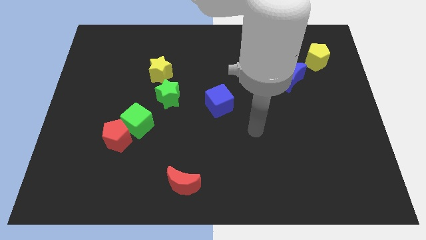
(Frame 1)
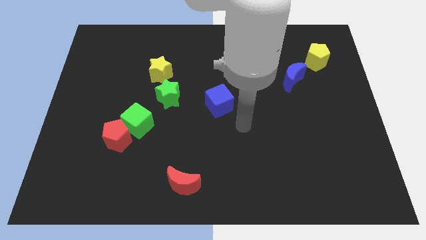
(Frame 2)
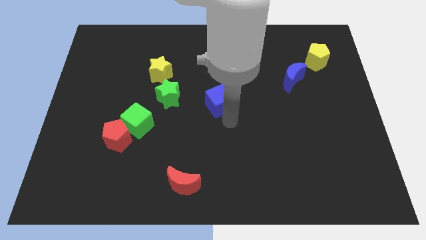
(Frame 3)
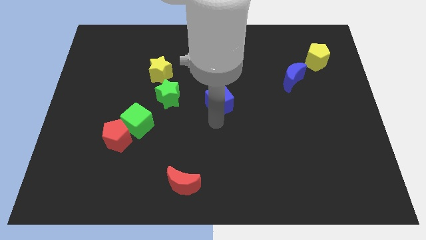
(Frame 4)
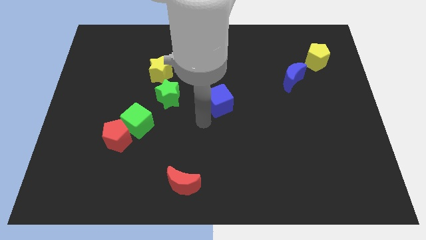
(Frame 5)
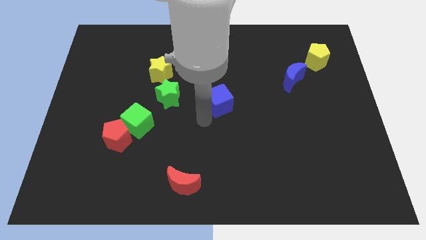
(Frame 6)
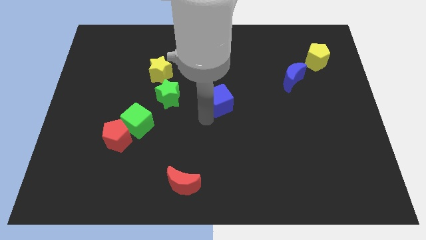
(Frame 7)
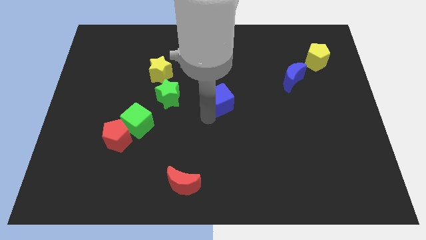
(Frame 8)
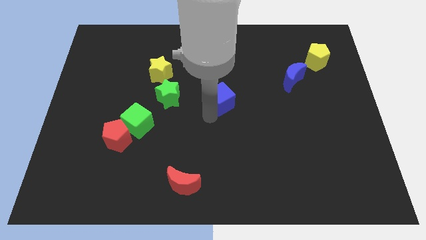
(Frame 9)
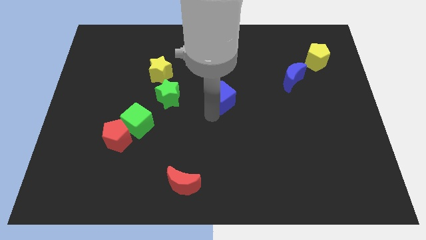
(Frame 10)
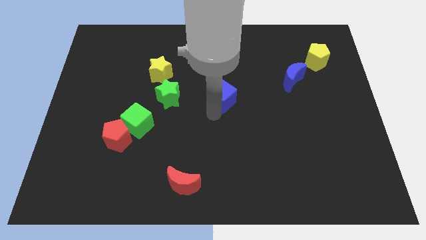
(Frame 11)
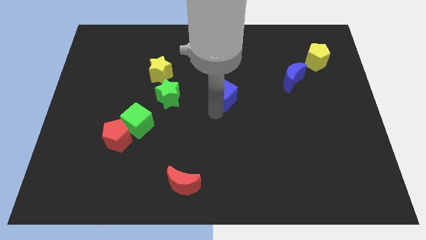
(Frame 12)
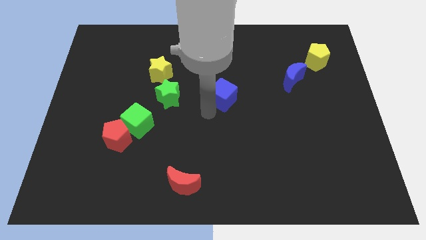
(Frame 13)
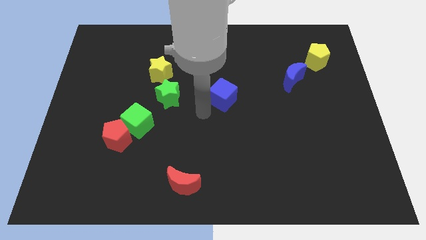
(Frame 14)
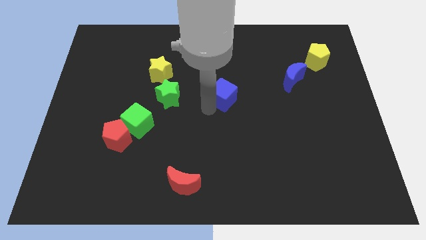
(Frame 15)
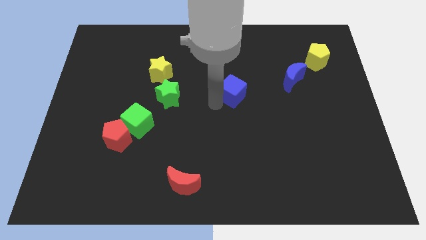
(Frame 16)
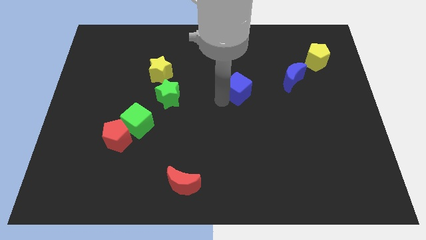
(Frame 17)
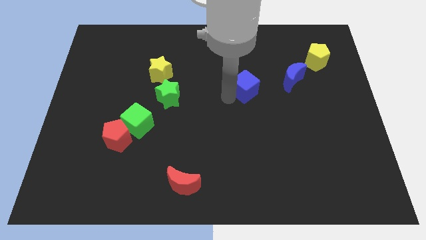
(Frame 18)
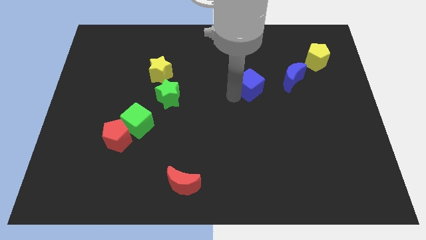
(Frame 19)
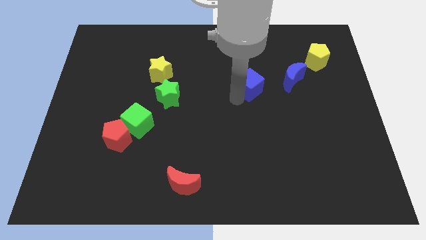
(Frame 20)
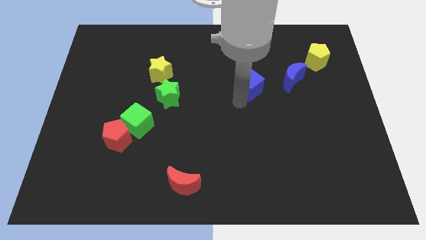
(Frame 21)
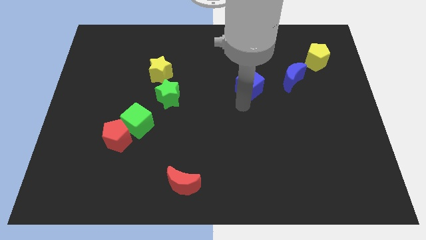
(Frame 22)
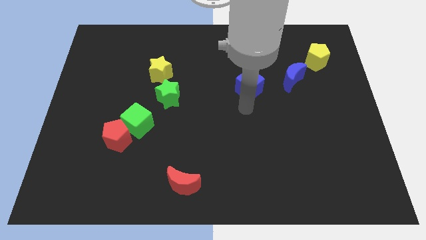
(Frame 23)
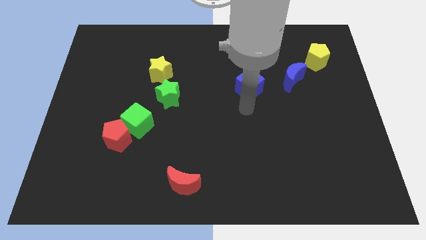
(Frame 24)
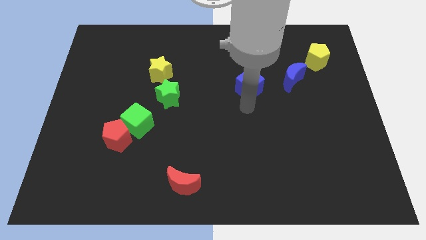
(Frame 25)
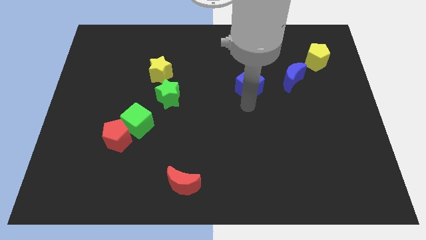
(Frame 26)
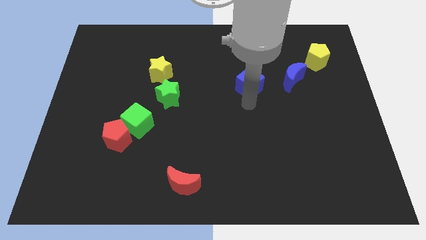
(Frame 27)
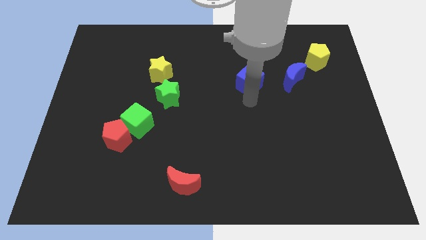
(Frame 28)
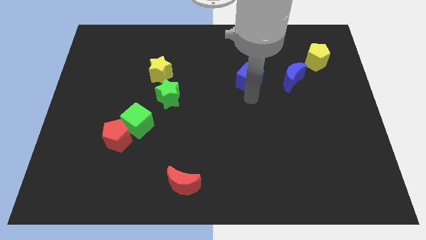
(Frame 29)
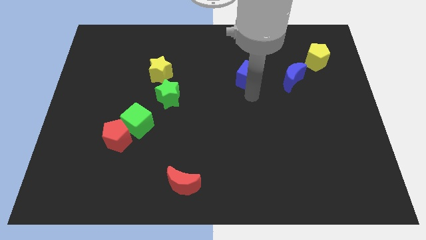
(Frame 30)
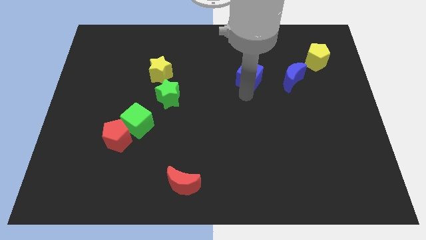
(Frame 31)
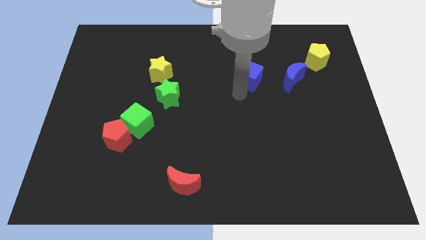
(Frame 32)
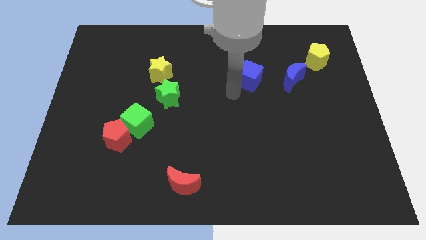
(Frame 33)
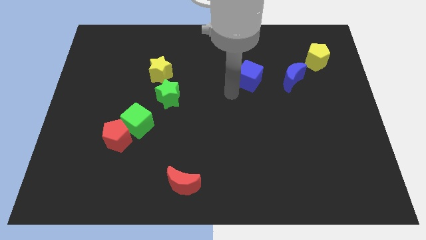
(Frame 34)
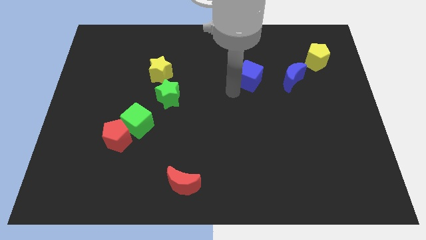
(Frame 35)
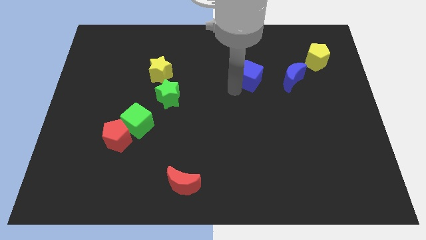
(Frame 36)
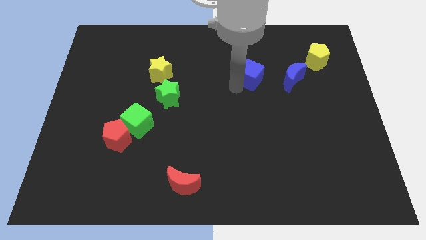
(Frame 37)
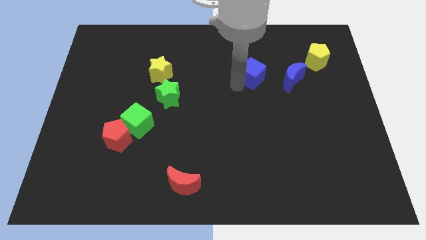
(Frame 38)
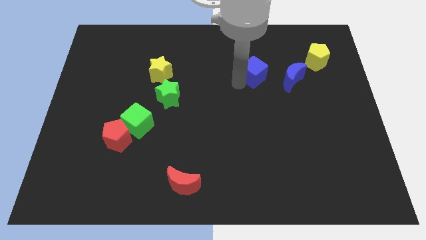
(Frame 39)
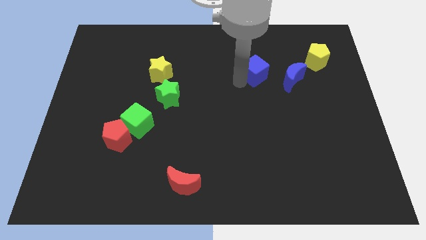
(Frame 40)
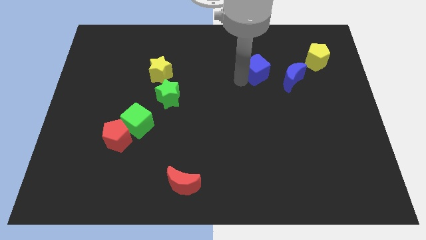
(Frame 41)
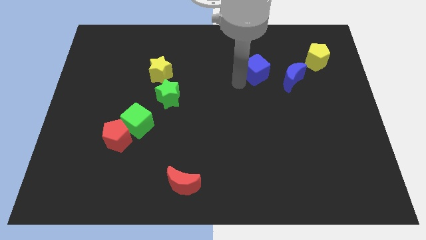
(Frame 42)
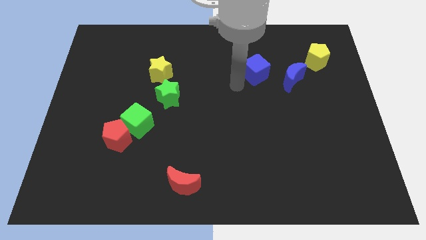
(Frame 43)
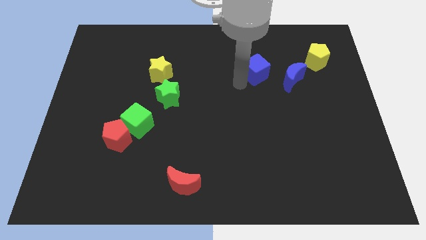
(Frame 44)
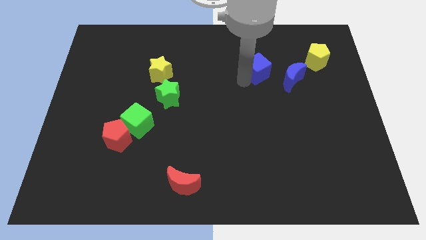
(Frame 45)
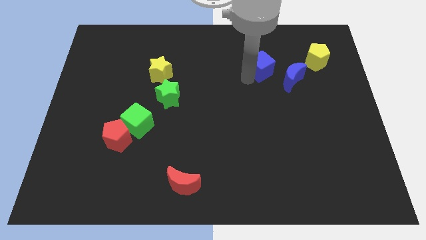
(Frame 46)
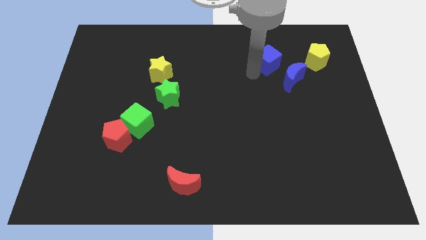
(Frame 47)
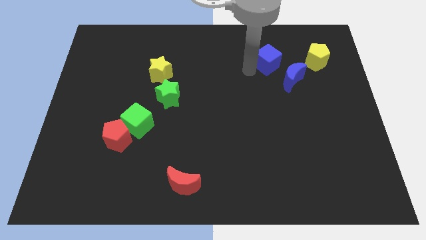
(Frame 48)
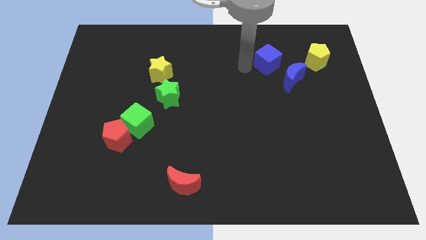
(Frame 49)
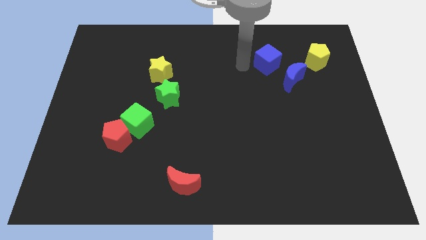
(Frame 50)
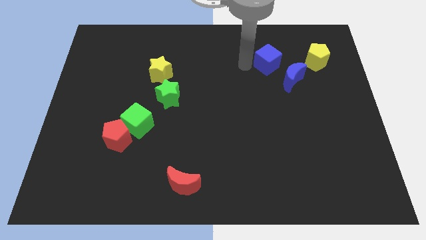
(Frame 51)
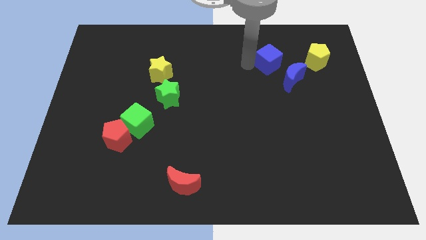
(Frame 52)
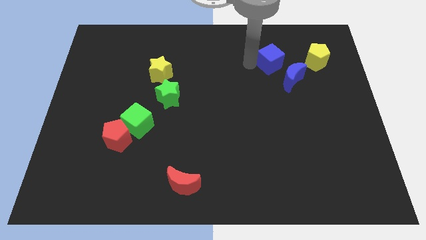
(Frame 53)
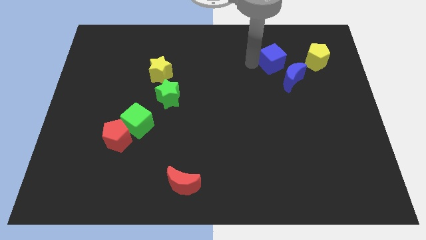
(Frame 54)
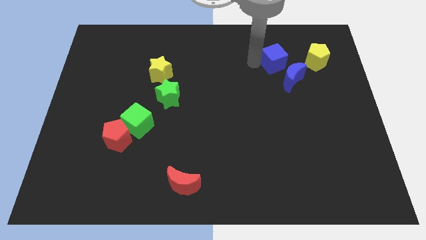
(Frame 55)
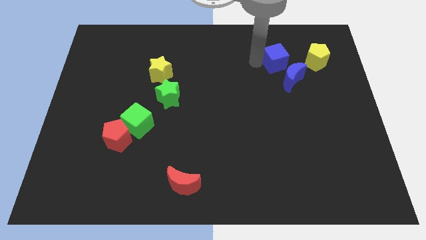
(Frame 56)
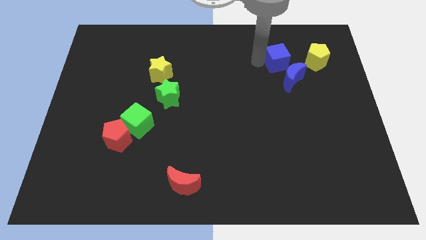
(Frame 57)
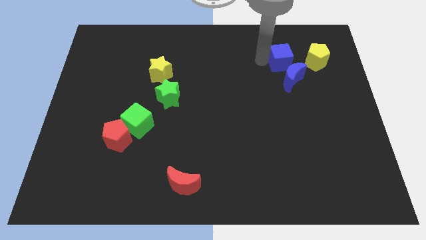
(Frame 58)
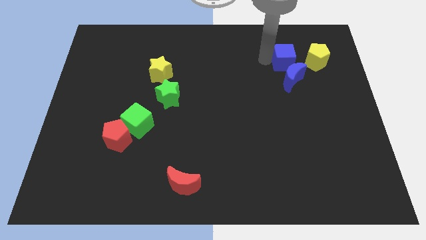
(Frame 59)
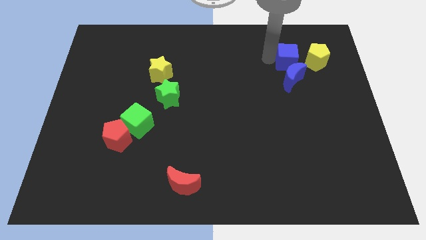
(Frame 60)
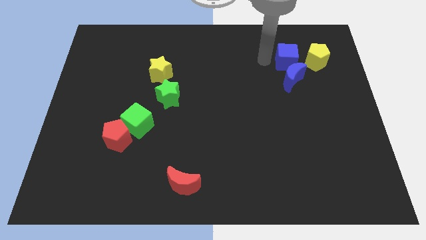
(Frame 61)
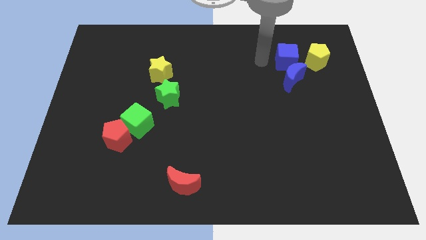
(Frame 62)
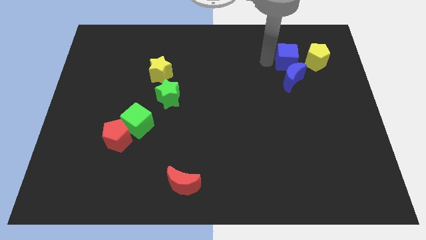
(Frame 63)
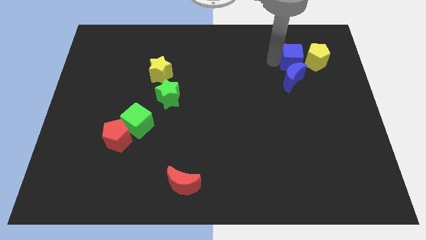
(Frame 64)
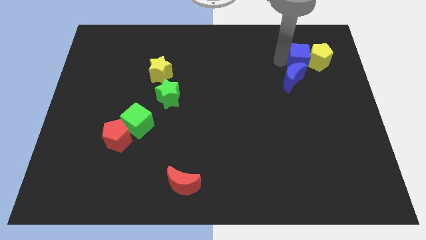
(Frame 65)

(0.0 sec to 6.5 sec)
put the blue cube close to the yellow pentagon
